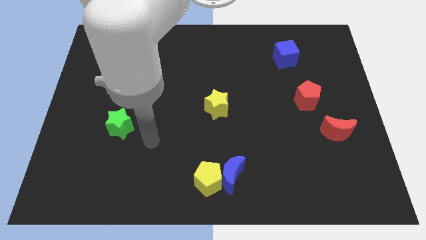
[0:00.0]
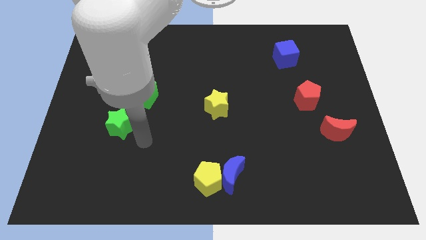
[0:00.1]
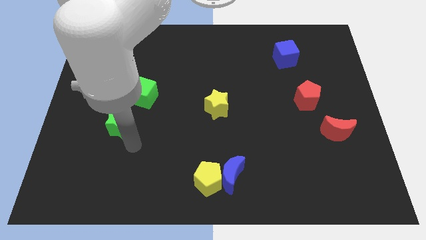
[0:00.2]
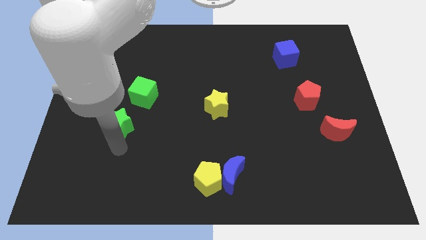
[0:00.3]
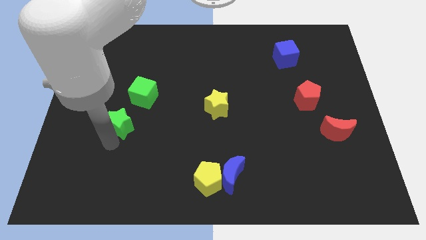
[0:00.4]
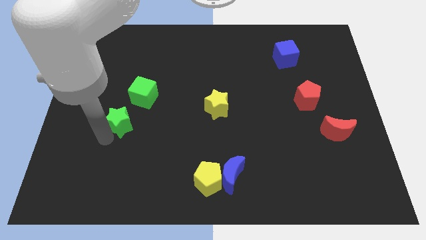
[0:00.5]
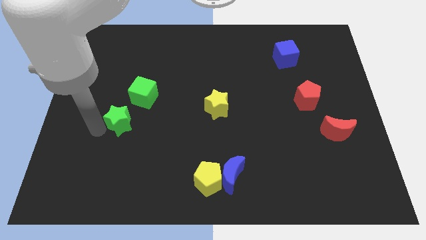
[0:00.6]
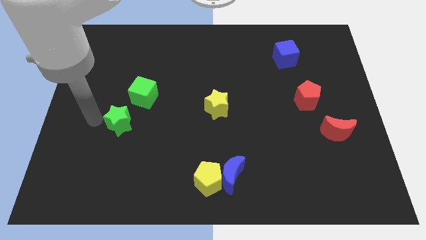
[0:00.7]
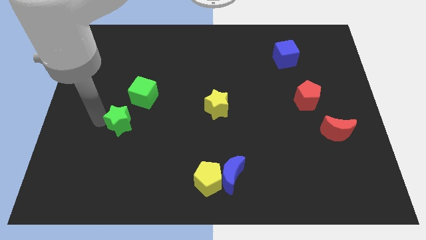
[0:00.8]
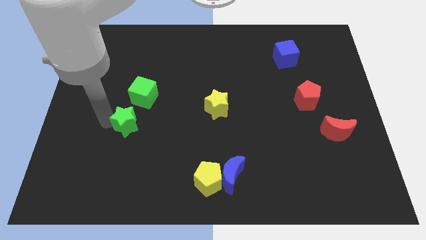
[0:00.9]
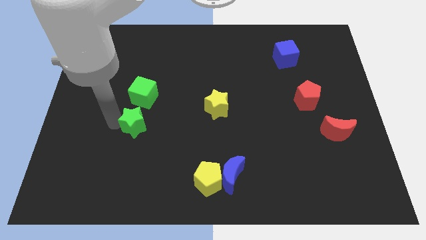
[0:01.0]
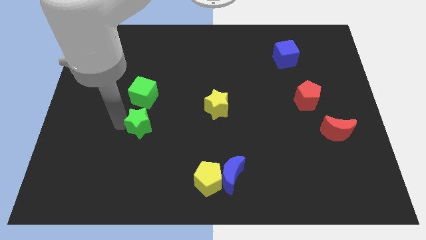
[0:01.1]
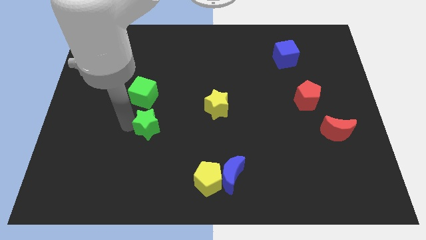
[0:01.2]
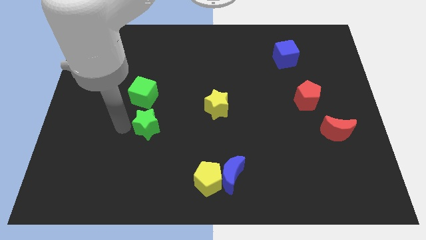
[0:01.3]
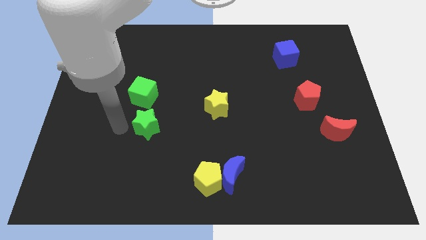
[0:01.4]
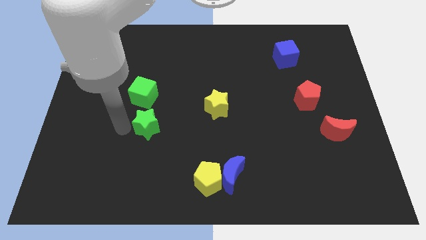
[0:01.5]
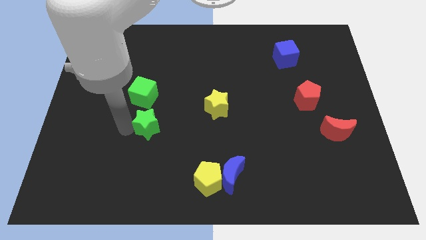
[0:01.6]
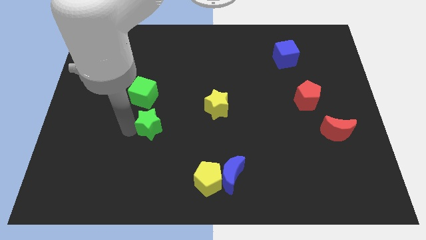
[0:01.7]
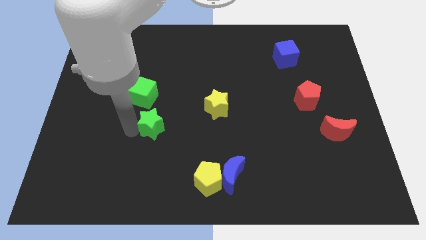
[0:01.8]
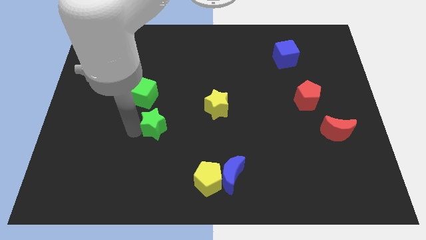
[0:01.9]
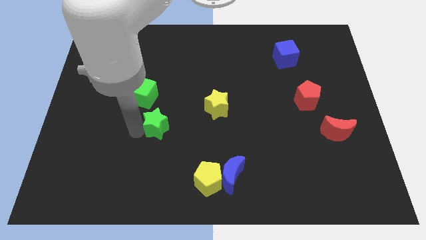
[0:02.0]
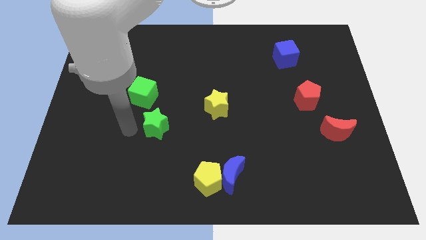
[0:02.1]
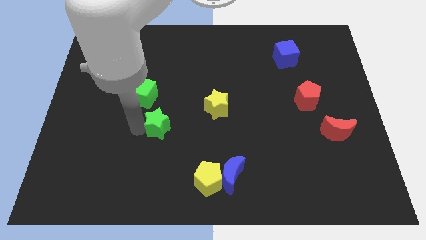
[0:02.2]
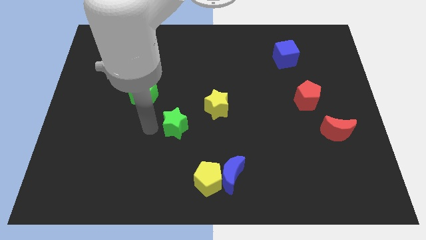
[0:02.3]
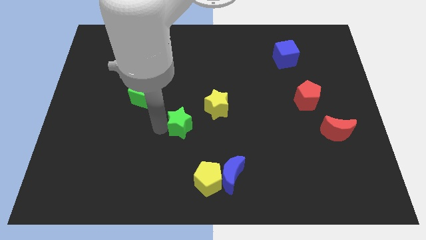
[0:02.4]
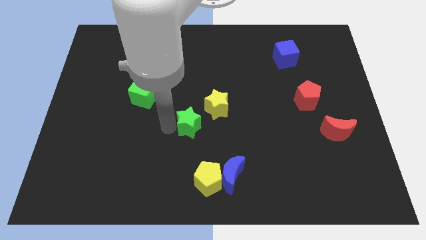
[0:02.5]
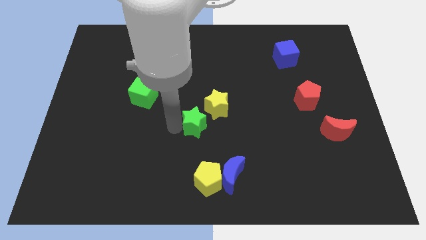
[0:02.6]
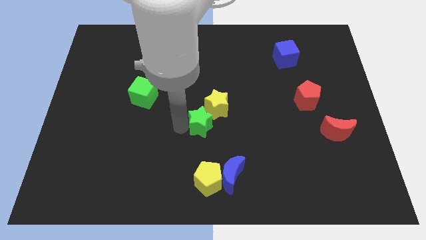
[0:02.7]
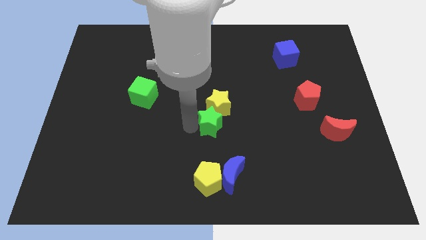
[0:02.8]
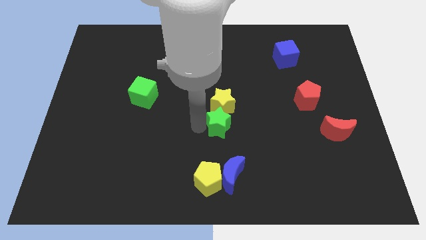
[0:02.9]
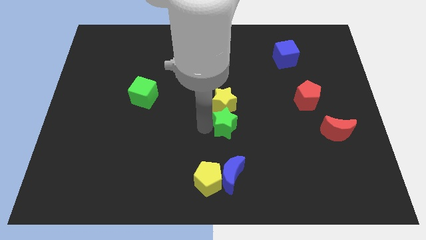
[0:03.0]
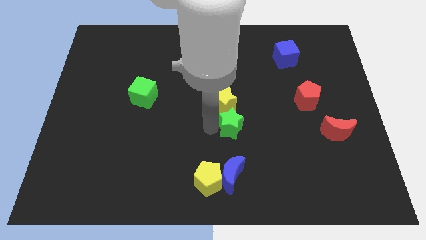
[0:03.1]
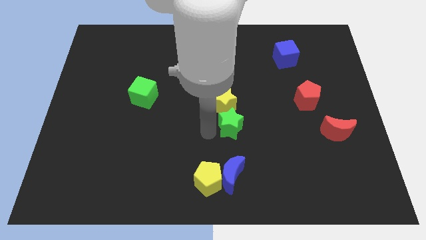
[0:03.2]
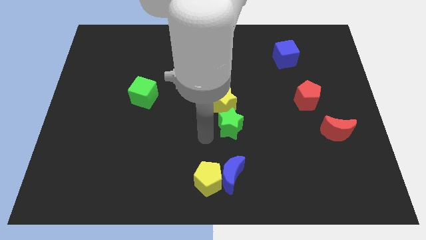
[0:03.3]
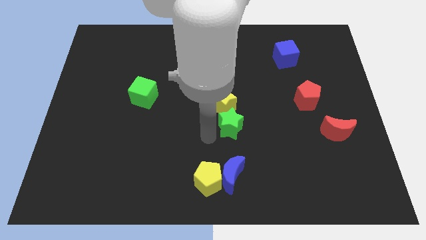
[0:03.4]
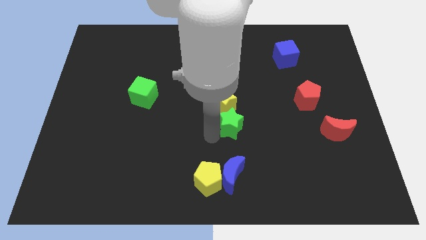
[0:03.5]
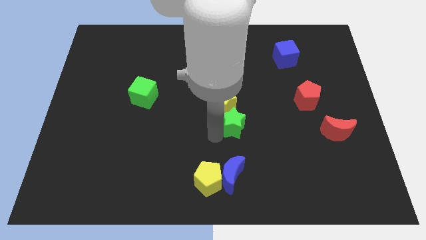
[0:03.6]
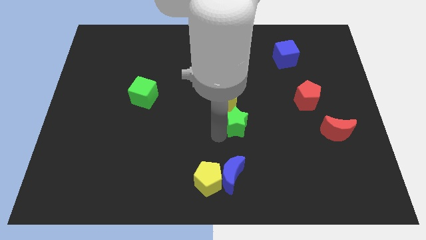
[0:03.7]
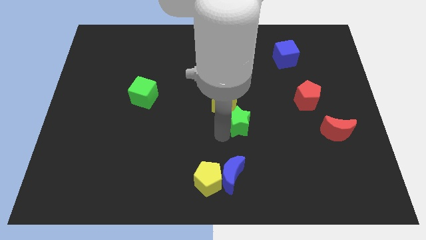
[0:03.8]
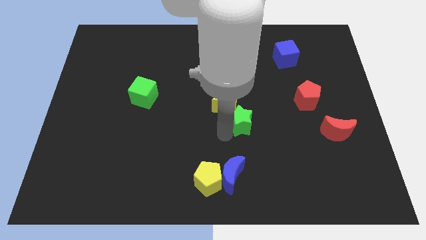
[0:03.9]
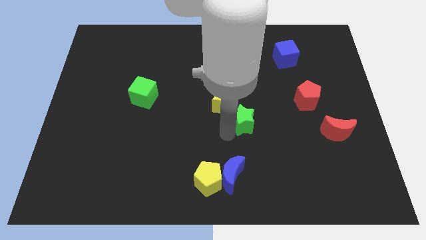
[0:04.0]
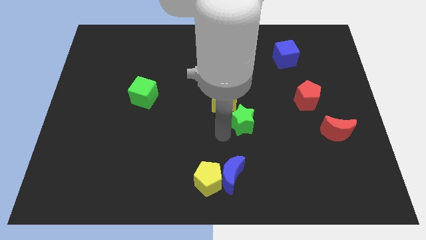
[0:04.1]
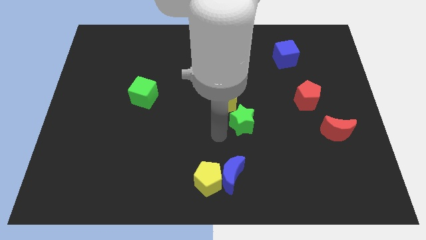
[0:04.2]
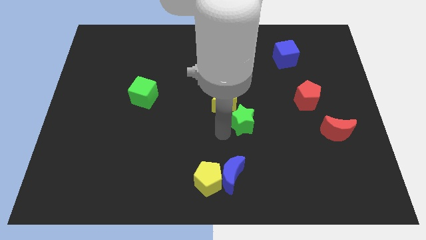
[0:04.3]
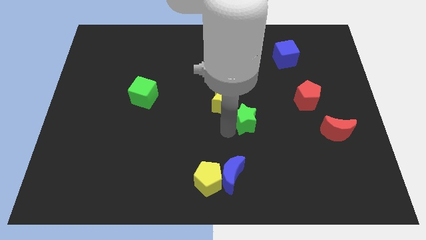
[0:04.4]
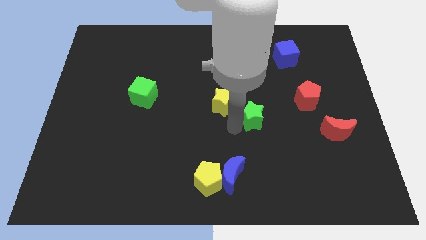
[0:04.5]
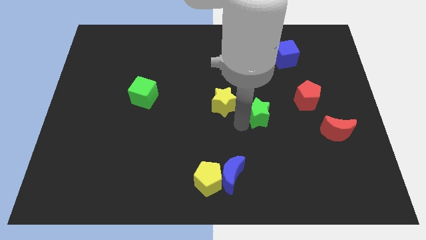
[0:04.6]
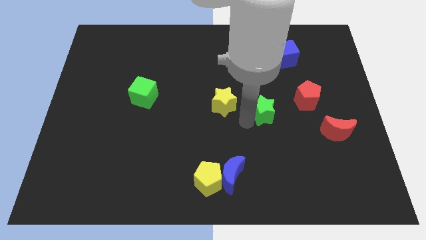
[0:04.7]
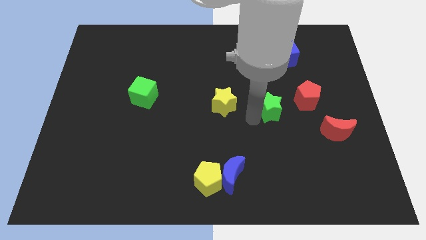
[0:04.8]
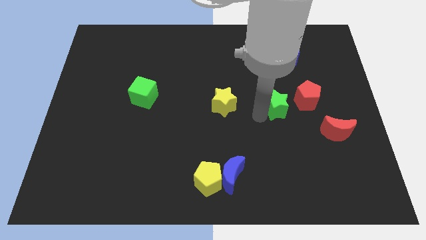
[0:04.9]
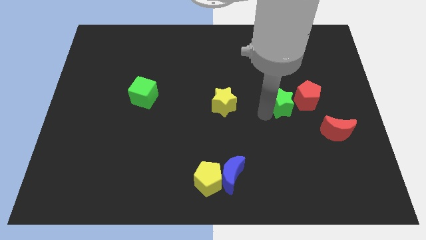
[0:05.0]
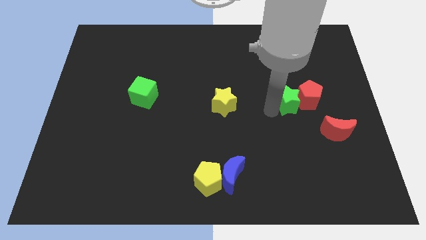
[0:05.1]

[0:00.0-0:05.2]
put the green star next to the red pentagon
